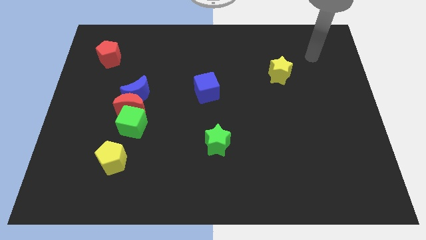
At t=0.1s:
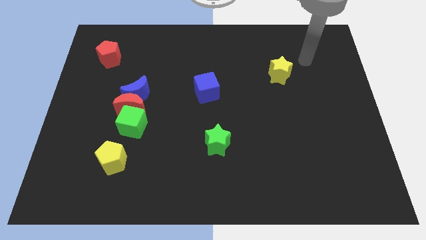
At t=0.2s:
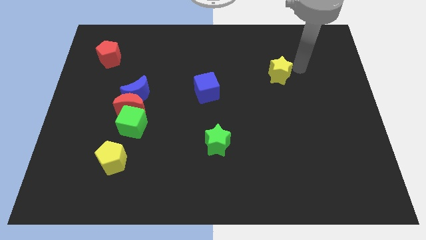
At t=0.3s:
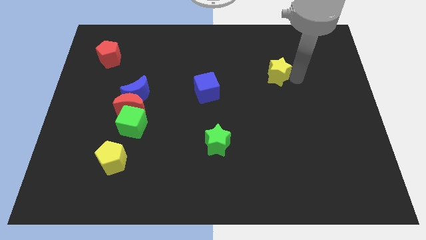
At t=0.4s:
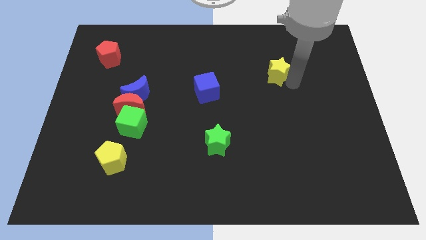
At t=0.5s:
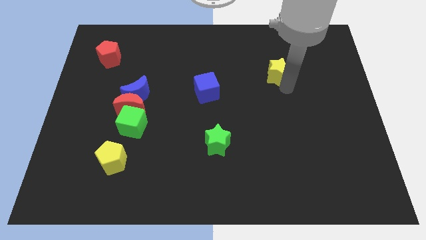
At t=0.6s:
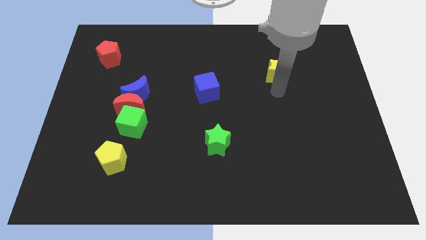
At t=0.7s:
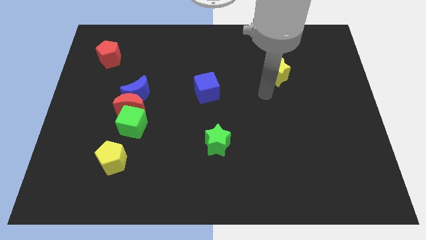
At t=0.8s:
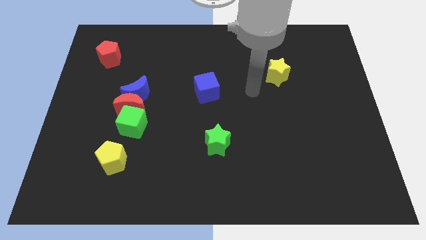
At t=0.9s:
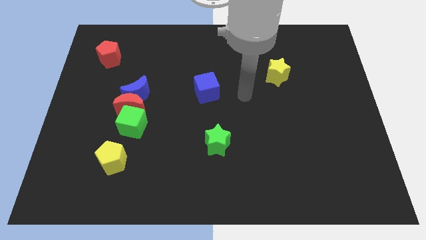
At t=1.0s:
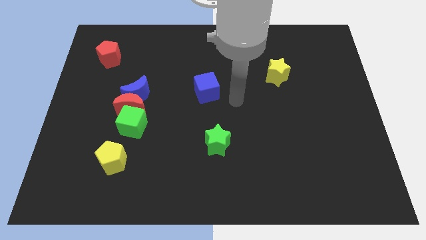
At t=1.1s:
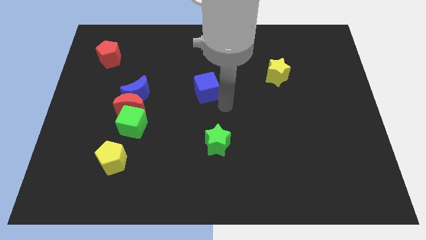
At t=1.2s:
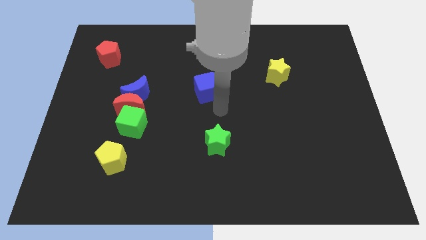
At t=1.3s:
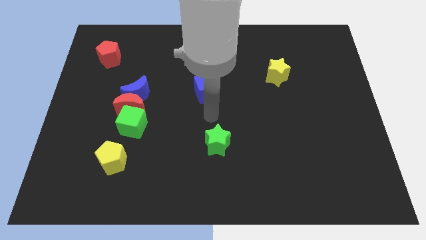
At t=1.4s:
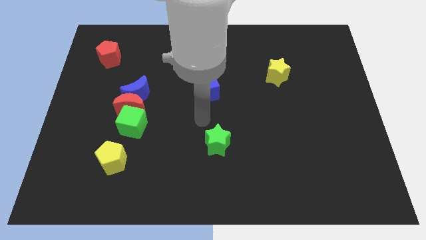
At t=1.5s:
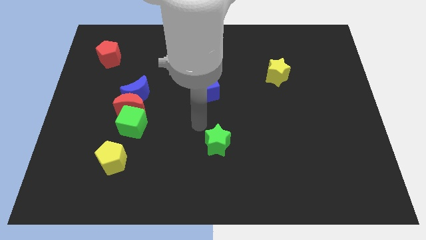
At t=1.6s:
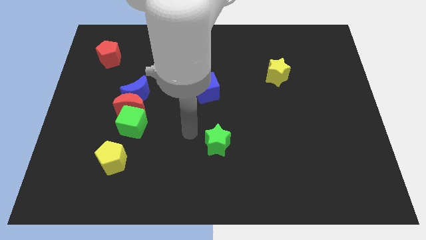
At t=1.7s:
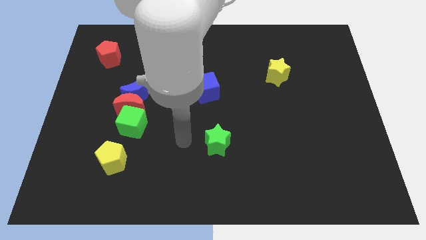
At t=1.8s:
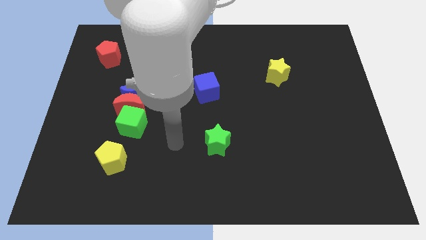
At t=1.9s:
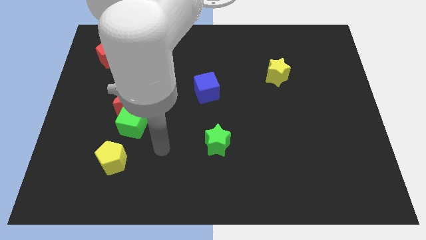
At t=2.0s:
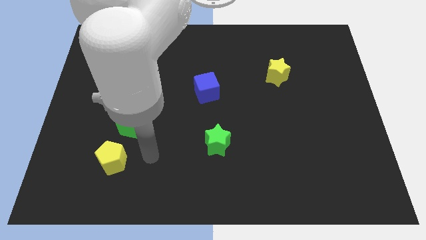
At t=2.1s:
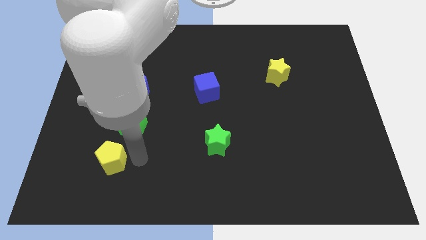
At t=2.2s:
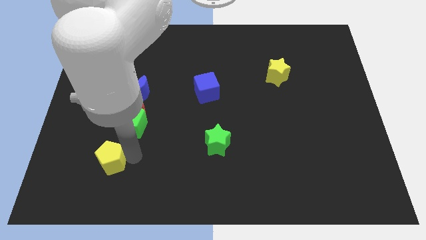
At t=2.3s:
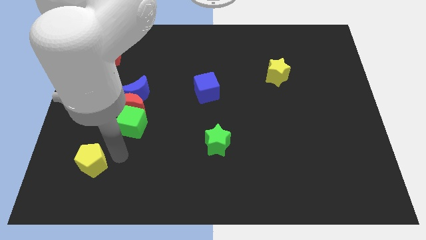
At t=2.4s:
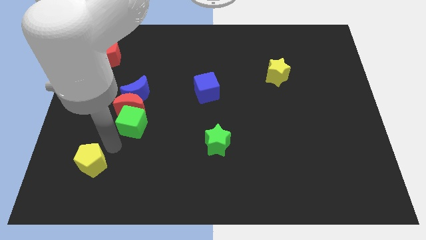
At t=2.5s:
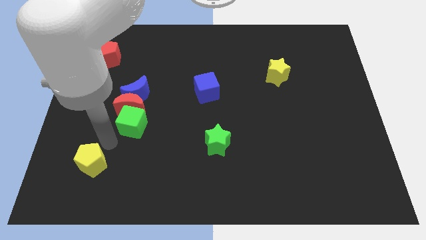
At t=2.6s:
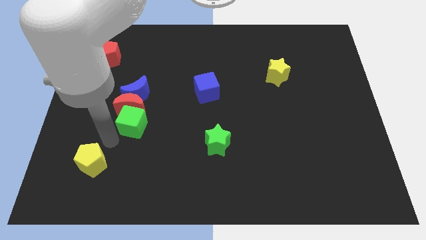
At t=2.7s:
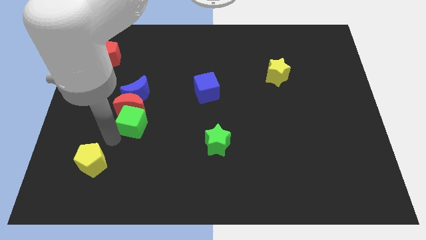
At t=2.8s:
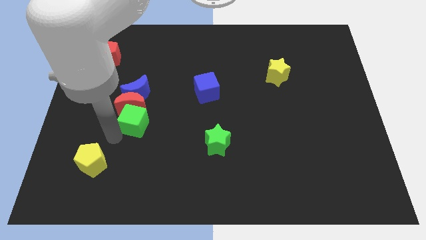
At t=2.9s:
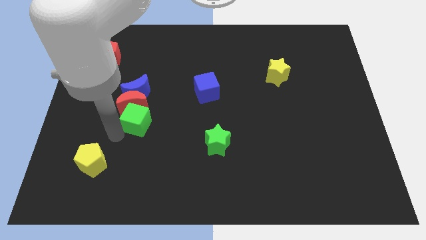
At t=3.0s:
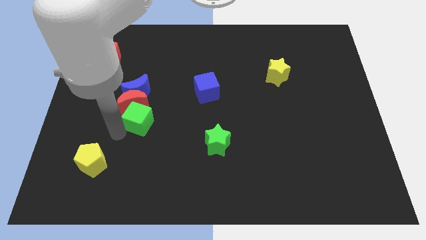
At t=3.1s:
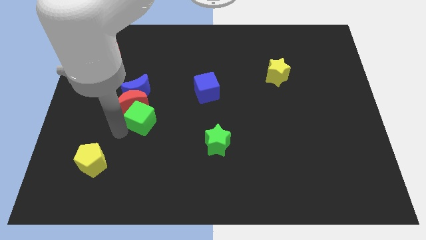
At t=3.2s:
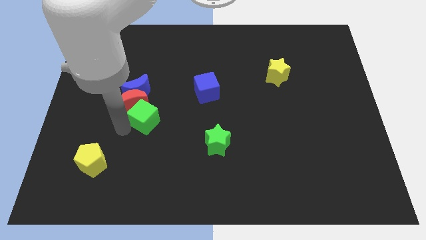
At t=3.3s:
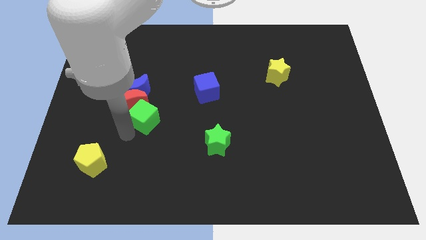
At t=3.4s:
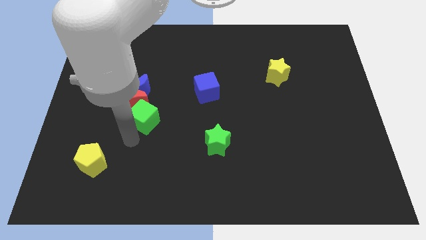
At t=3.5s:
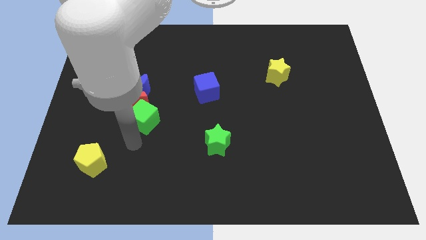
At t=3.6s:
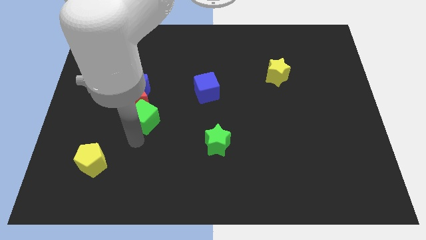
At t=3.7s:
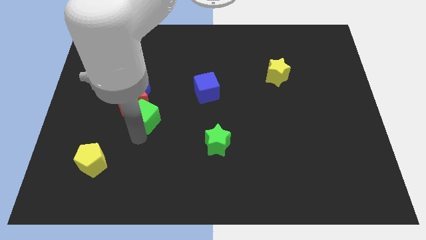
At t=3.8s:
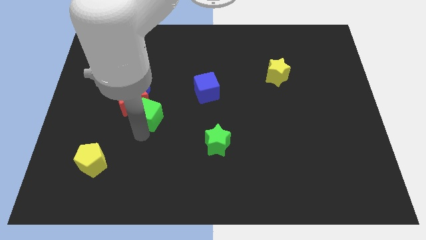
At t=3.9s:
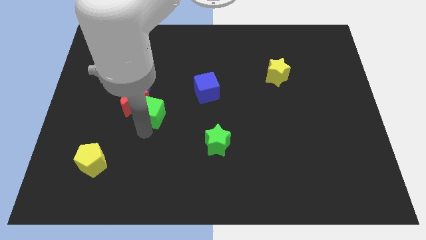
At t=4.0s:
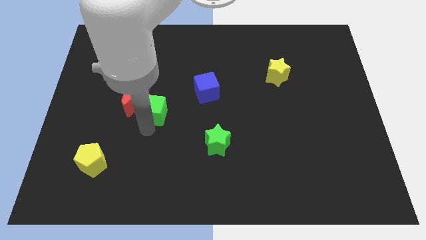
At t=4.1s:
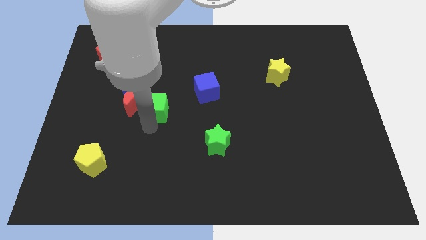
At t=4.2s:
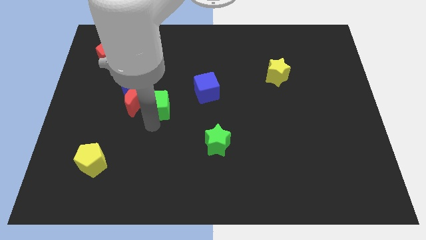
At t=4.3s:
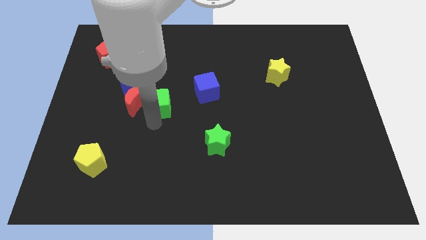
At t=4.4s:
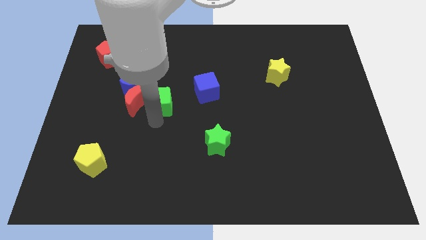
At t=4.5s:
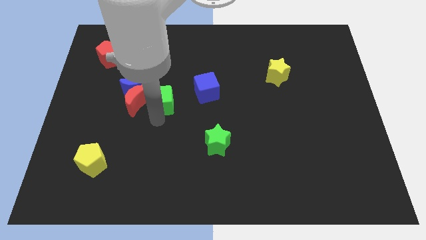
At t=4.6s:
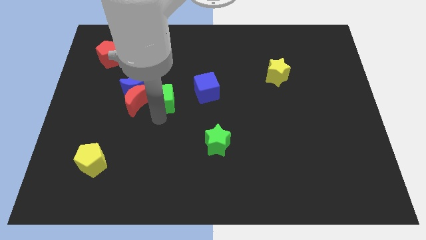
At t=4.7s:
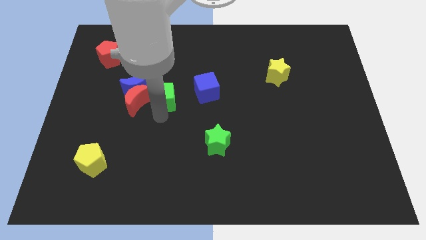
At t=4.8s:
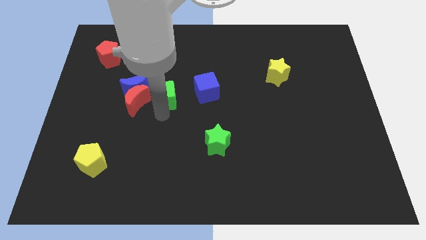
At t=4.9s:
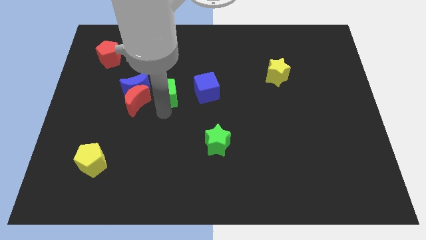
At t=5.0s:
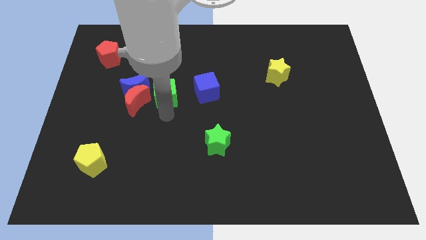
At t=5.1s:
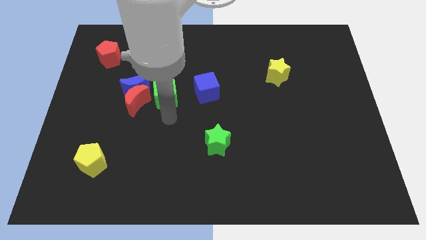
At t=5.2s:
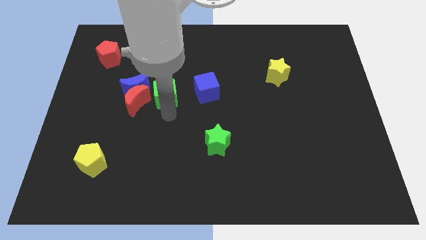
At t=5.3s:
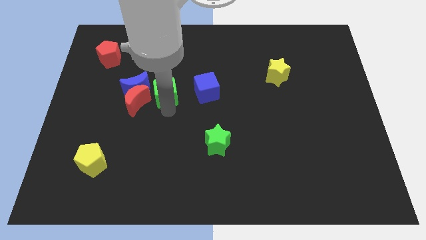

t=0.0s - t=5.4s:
move the green cube upwards slightly

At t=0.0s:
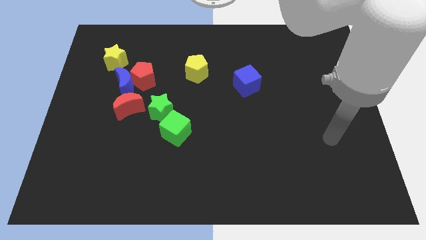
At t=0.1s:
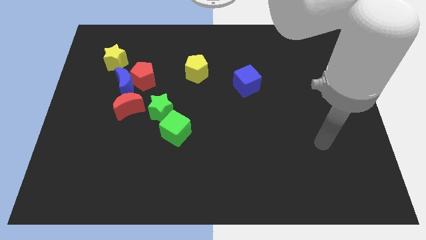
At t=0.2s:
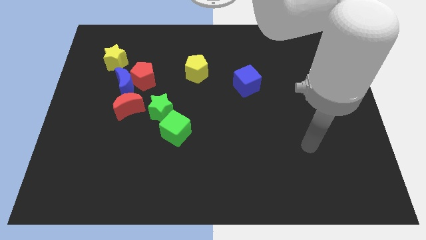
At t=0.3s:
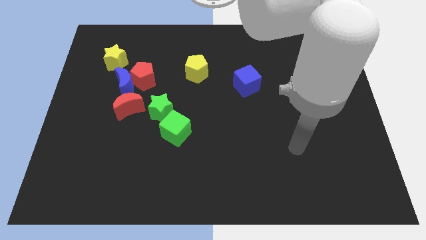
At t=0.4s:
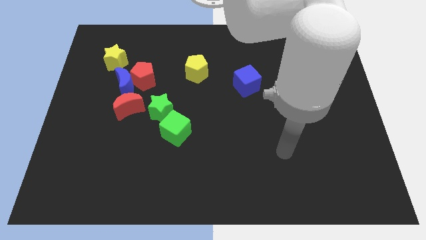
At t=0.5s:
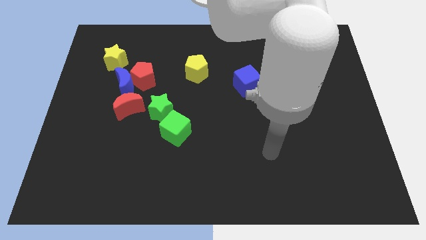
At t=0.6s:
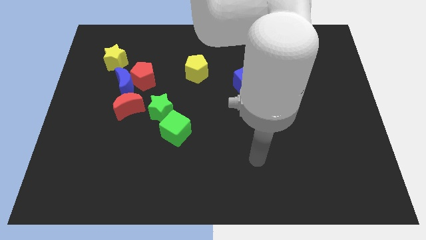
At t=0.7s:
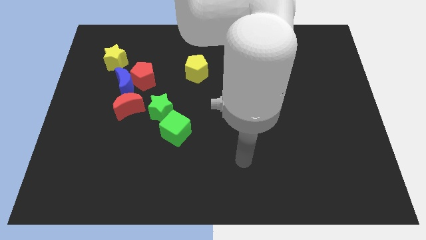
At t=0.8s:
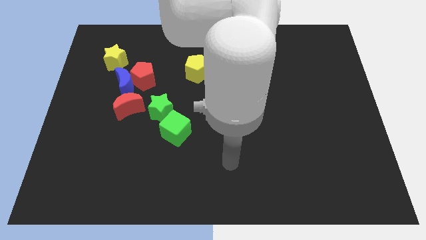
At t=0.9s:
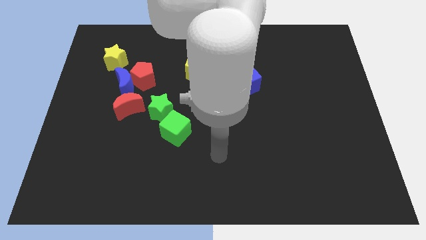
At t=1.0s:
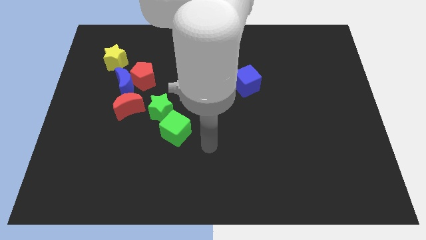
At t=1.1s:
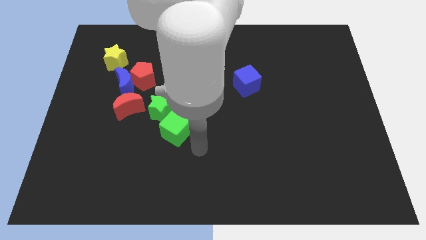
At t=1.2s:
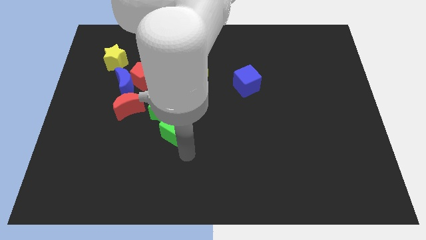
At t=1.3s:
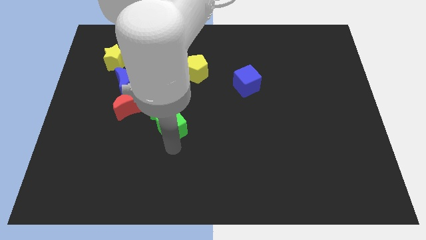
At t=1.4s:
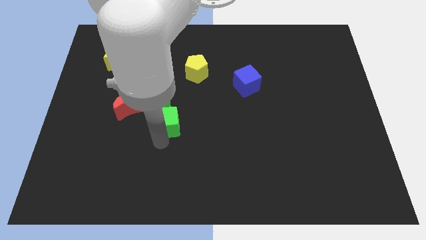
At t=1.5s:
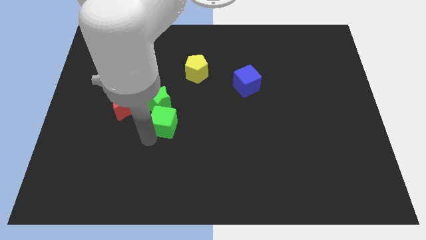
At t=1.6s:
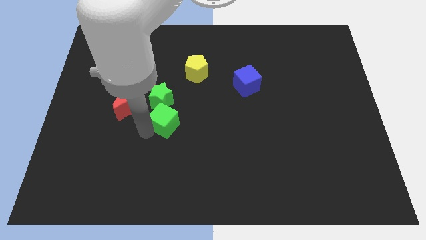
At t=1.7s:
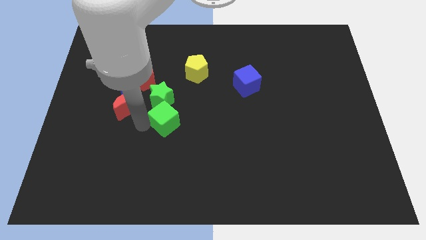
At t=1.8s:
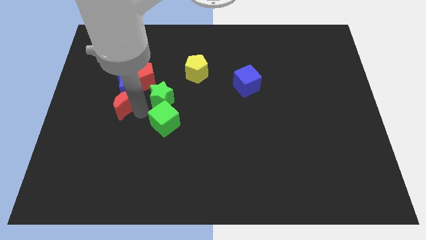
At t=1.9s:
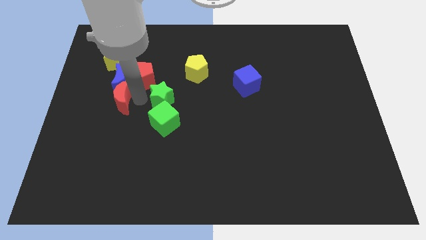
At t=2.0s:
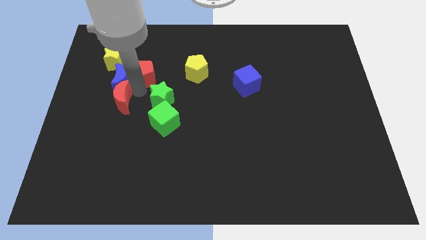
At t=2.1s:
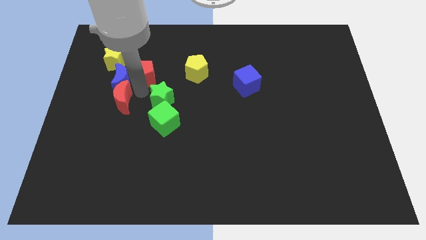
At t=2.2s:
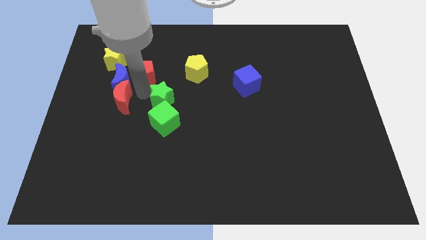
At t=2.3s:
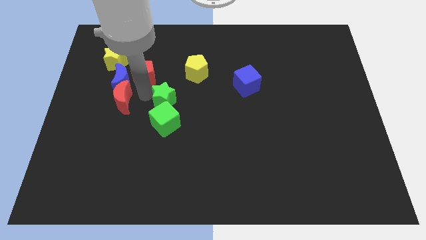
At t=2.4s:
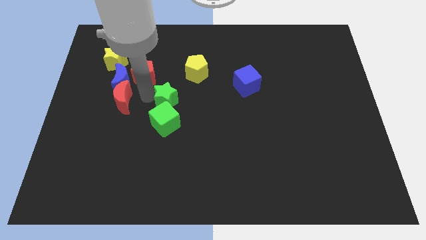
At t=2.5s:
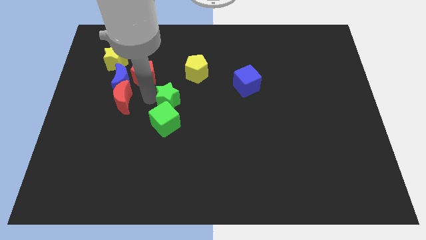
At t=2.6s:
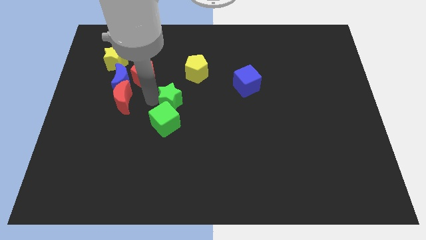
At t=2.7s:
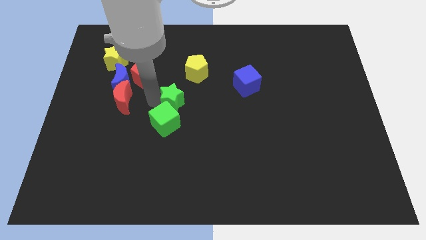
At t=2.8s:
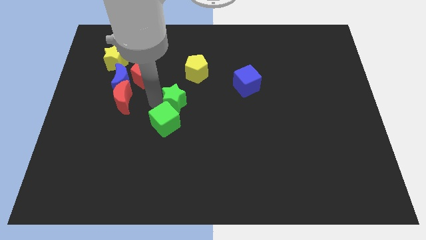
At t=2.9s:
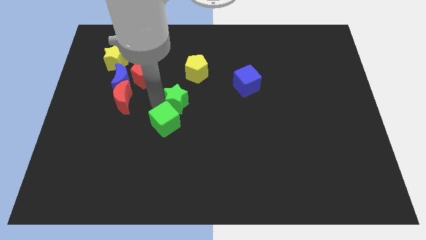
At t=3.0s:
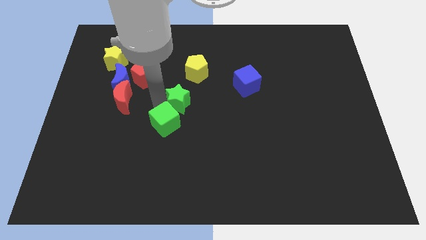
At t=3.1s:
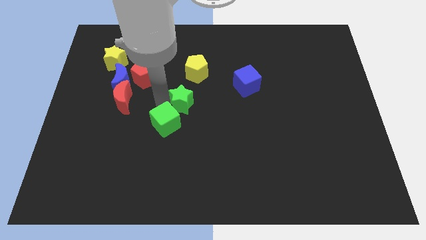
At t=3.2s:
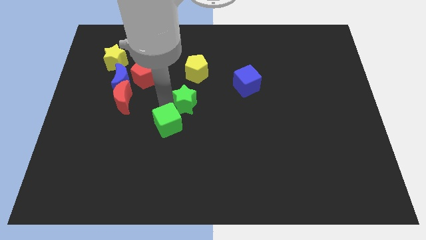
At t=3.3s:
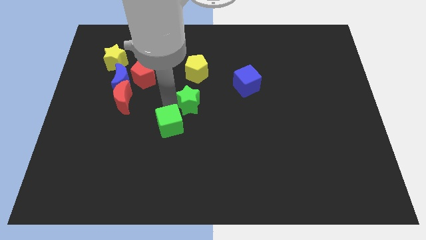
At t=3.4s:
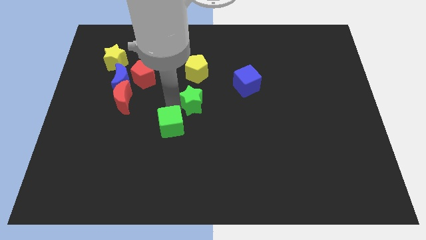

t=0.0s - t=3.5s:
push the green star slightly to the right
